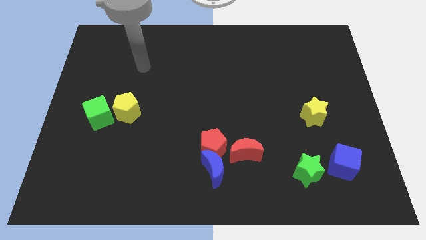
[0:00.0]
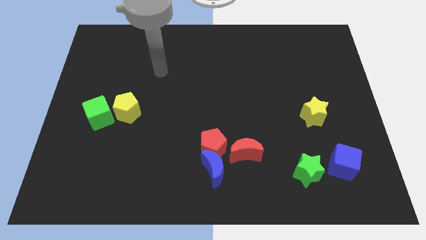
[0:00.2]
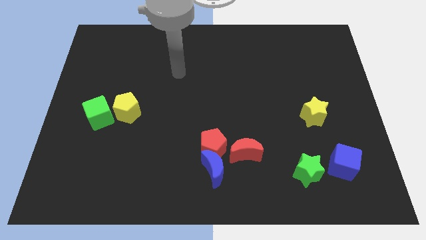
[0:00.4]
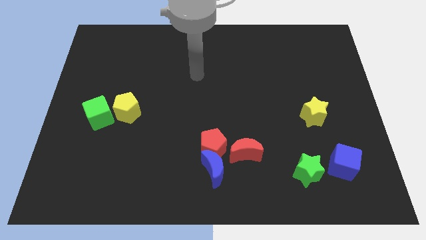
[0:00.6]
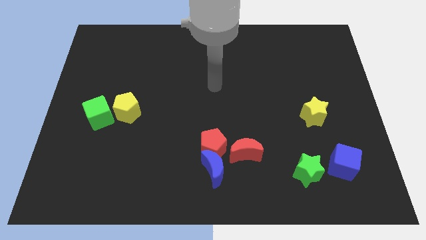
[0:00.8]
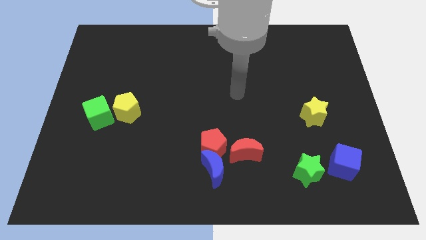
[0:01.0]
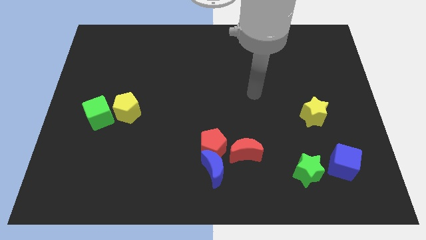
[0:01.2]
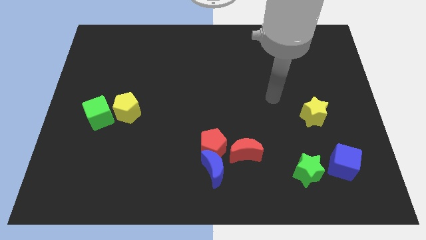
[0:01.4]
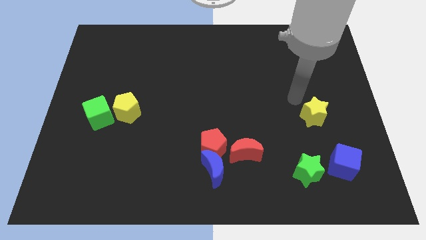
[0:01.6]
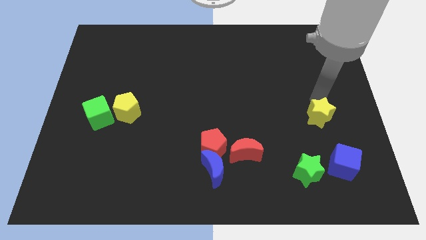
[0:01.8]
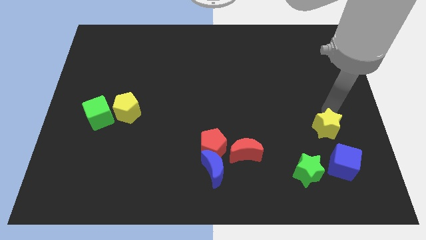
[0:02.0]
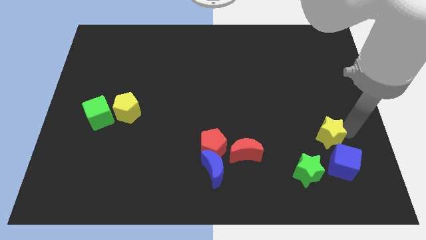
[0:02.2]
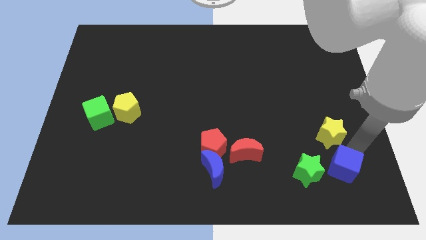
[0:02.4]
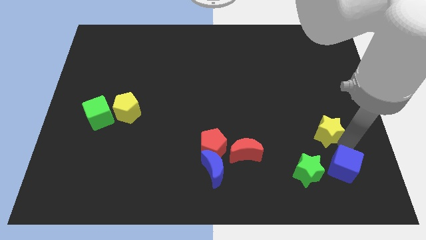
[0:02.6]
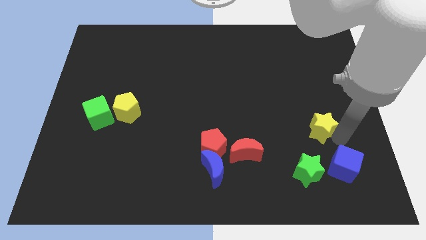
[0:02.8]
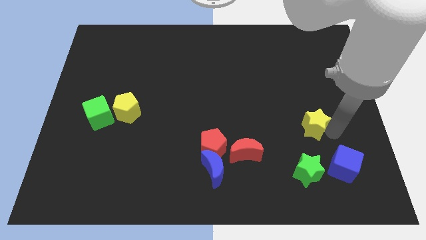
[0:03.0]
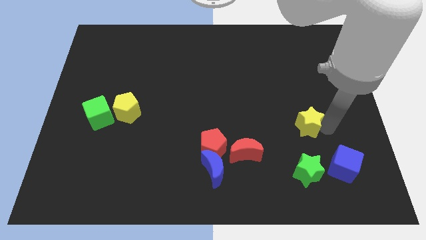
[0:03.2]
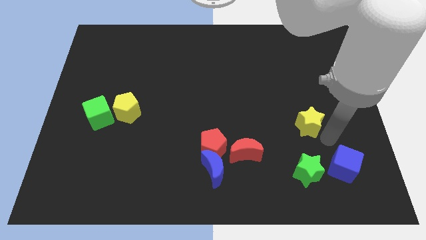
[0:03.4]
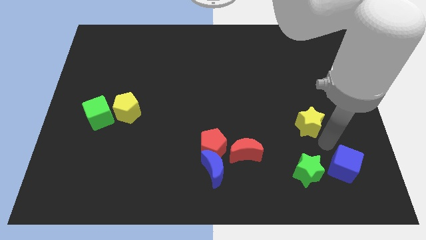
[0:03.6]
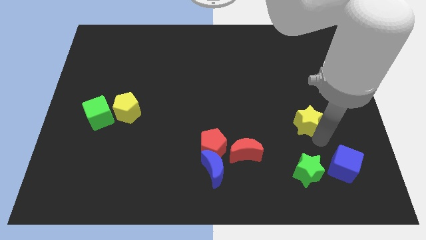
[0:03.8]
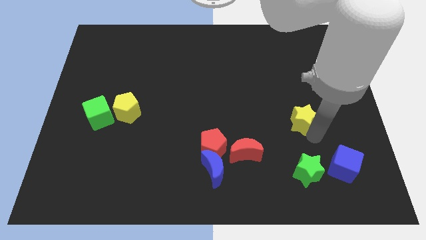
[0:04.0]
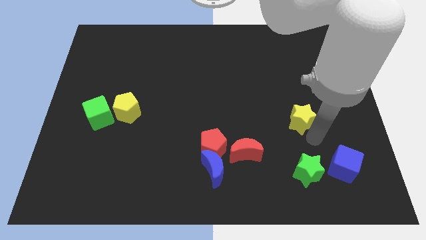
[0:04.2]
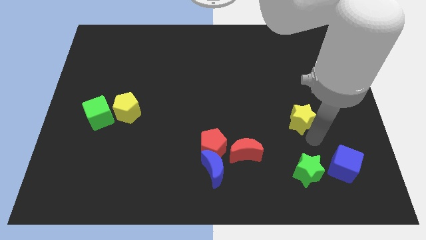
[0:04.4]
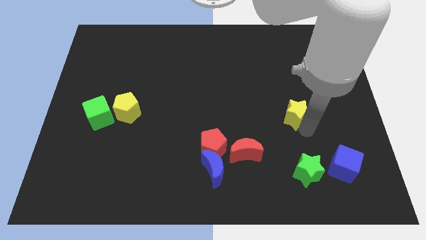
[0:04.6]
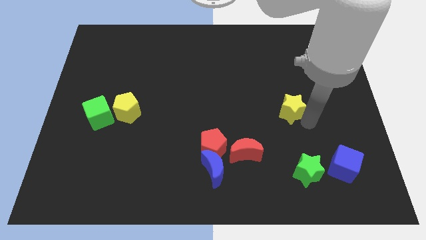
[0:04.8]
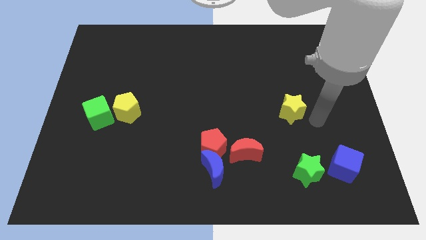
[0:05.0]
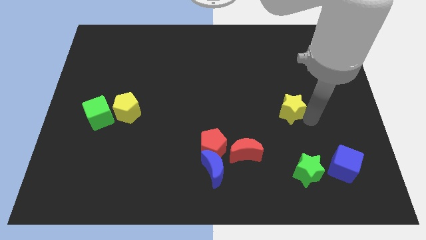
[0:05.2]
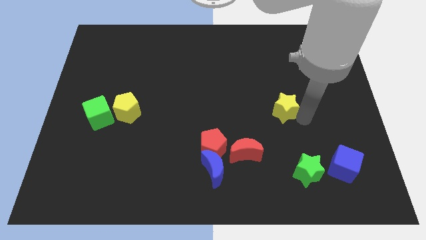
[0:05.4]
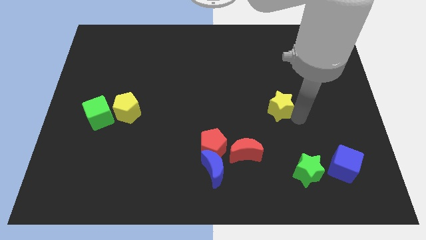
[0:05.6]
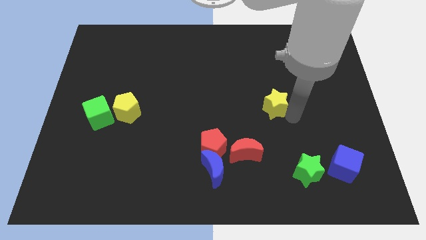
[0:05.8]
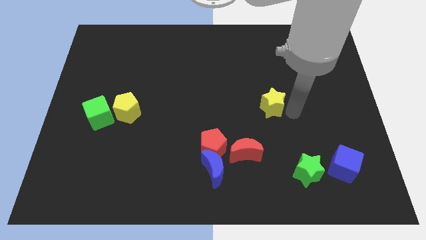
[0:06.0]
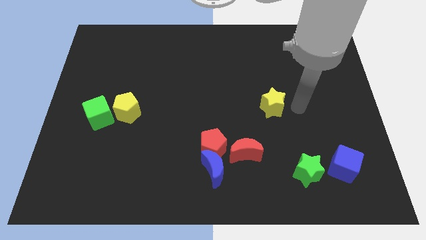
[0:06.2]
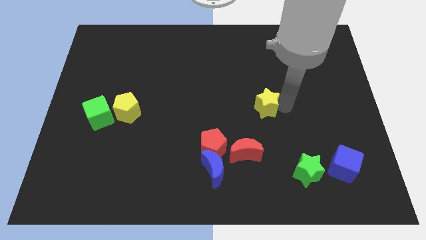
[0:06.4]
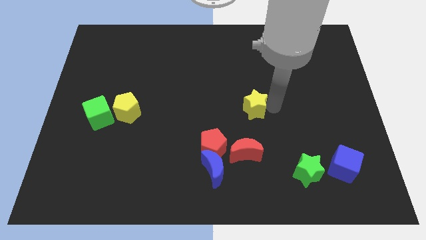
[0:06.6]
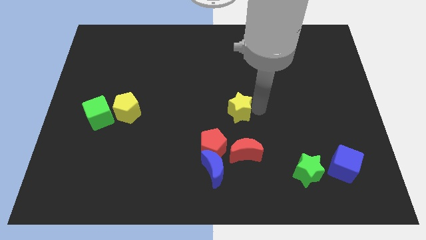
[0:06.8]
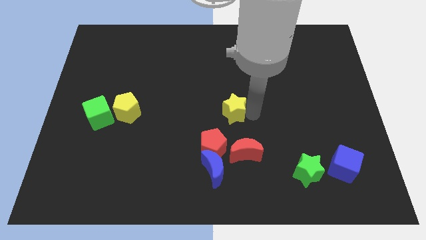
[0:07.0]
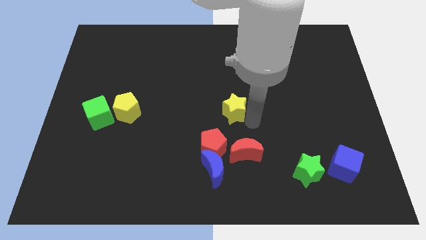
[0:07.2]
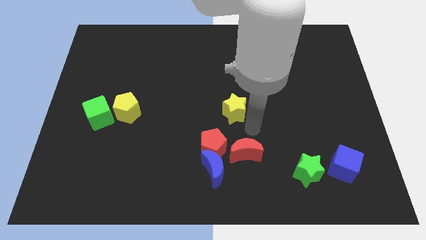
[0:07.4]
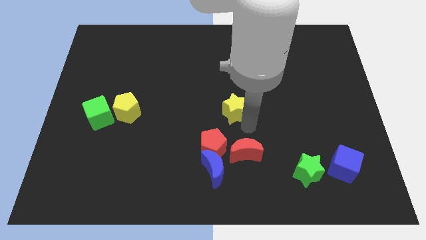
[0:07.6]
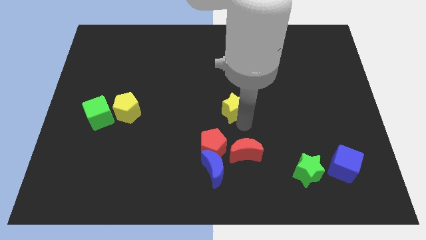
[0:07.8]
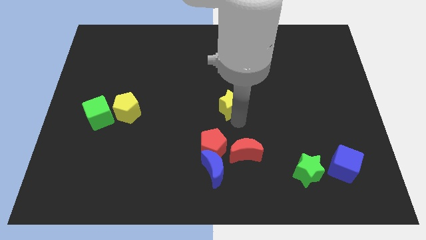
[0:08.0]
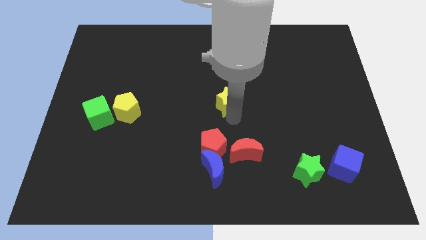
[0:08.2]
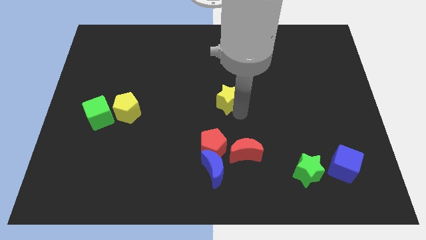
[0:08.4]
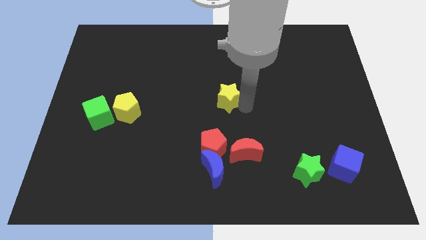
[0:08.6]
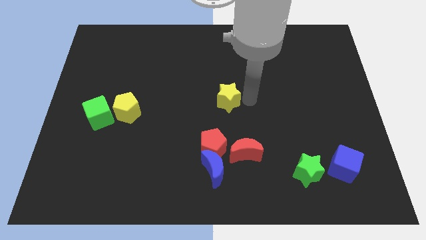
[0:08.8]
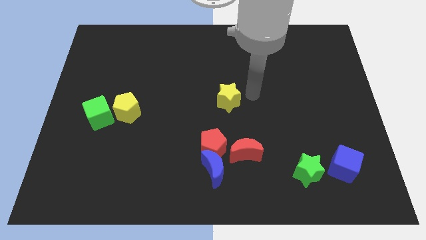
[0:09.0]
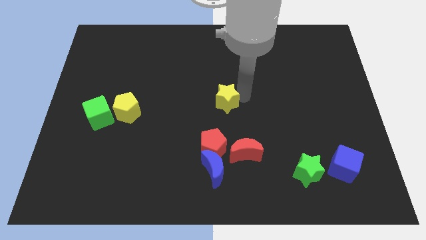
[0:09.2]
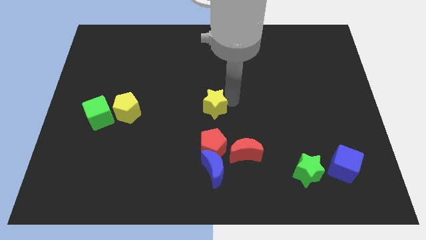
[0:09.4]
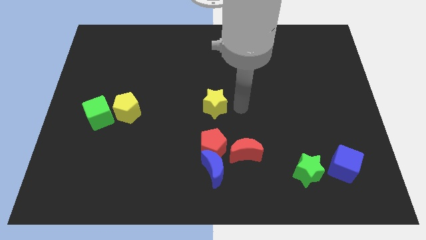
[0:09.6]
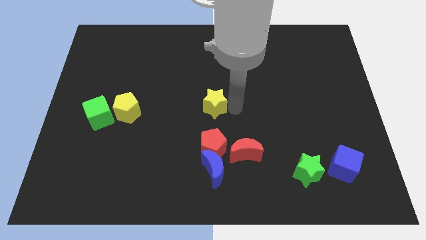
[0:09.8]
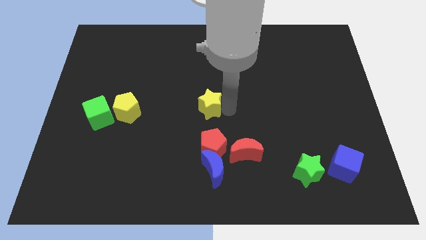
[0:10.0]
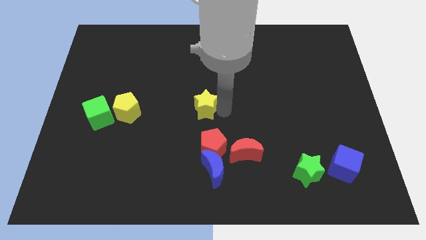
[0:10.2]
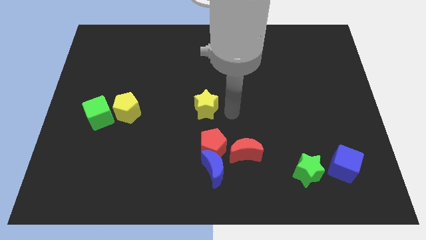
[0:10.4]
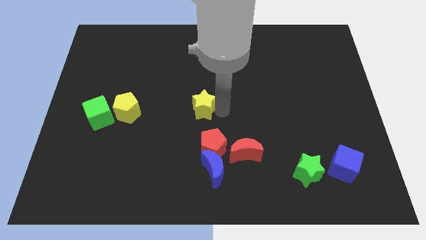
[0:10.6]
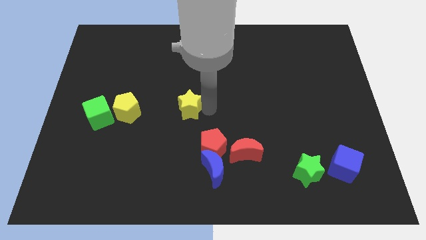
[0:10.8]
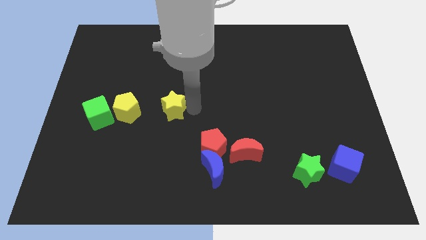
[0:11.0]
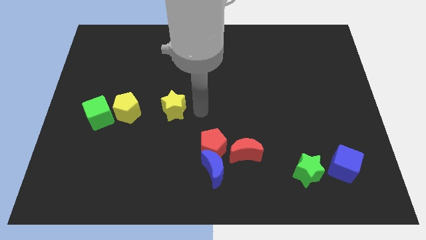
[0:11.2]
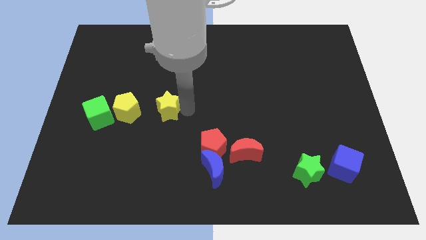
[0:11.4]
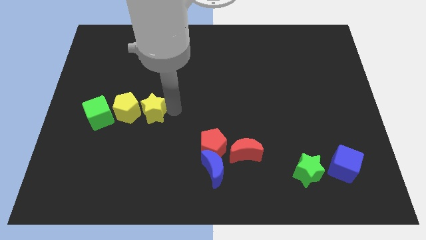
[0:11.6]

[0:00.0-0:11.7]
put the yellow star close to the yellow pentagon

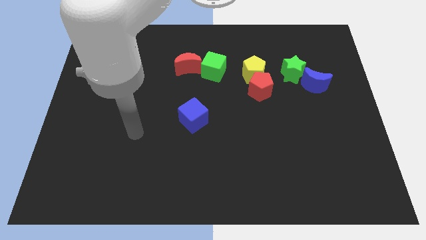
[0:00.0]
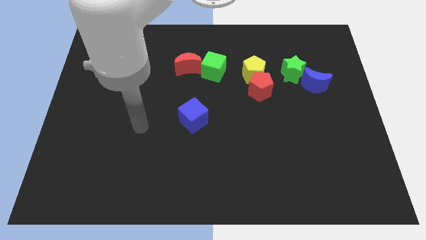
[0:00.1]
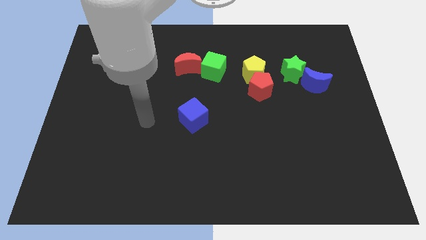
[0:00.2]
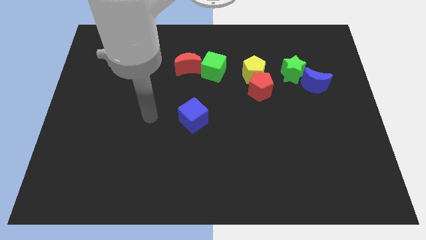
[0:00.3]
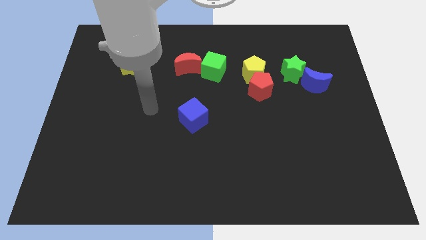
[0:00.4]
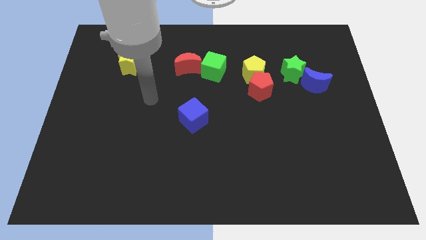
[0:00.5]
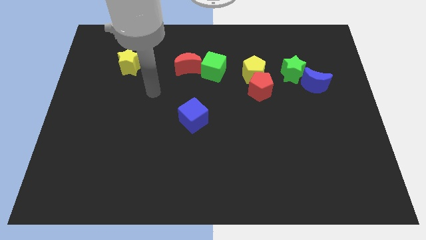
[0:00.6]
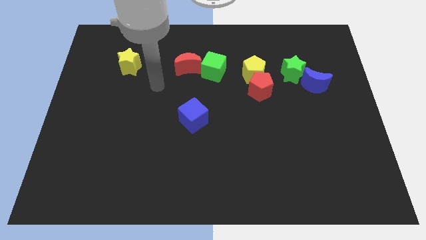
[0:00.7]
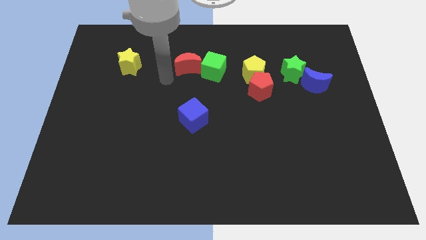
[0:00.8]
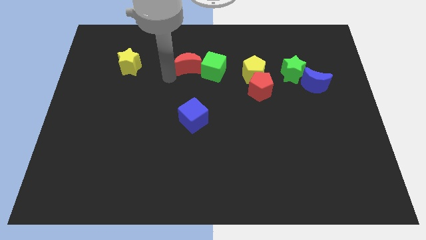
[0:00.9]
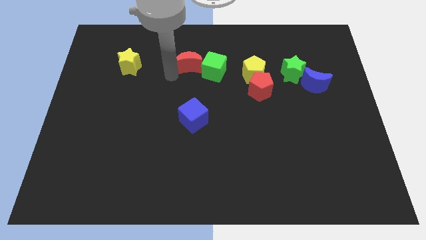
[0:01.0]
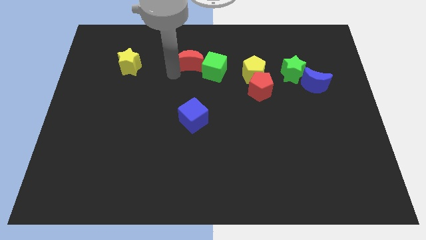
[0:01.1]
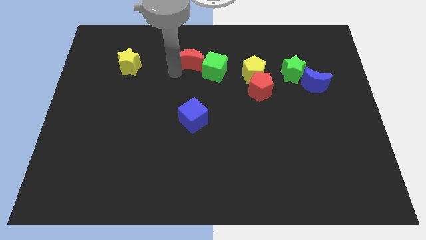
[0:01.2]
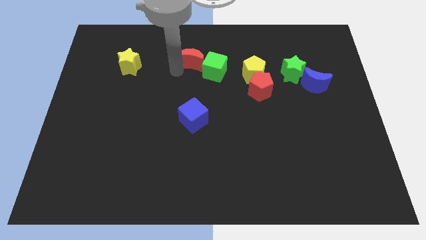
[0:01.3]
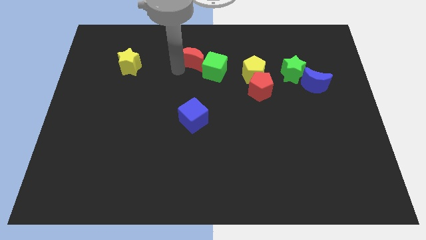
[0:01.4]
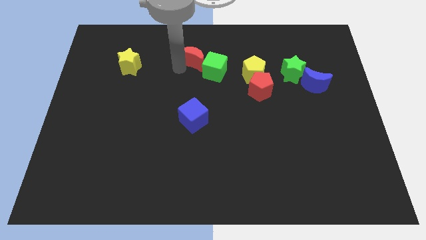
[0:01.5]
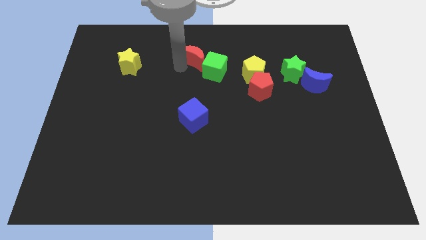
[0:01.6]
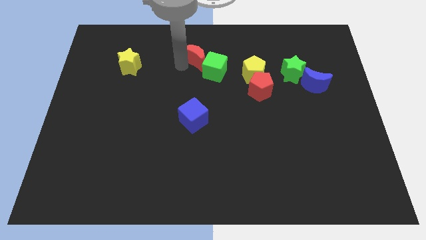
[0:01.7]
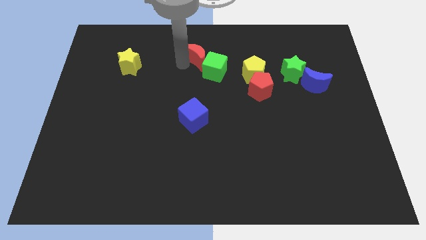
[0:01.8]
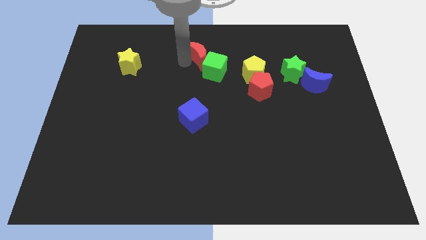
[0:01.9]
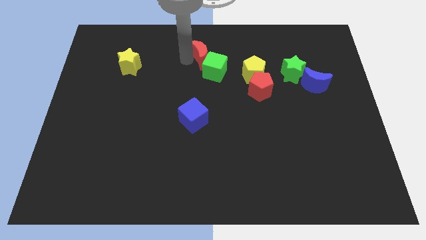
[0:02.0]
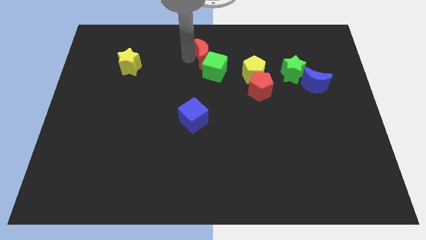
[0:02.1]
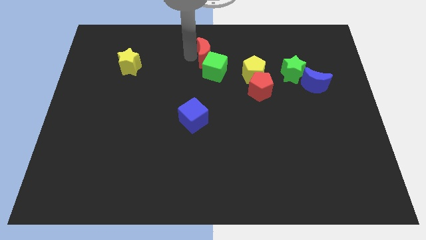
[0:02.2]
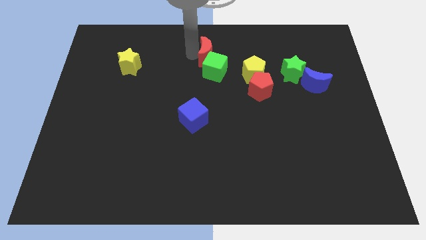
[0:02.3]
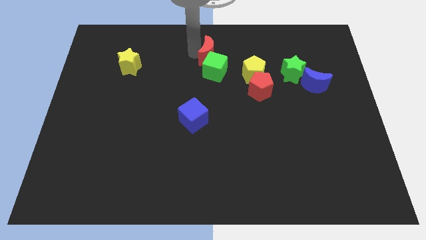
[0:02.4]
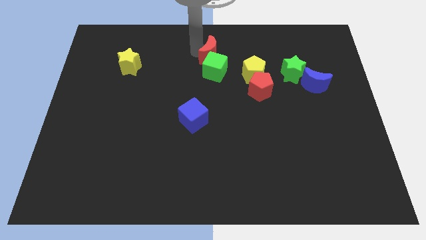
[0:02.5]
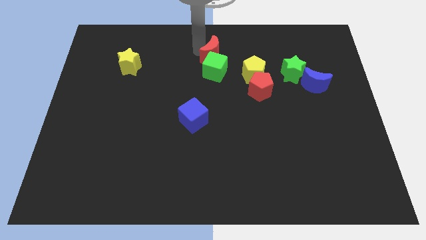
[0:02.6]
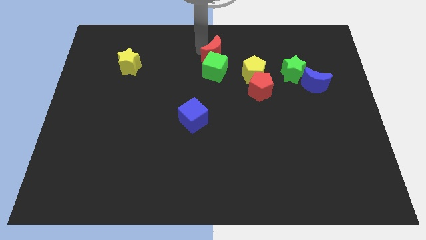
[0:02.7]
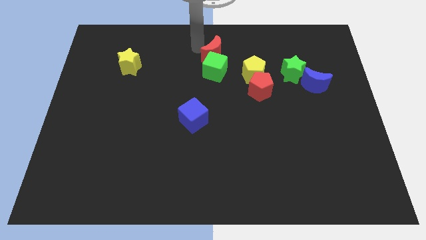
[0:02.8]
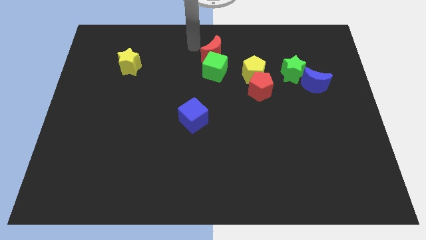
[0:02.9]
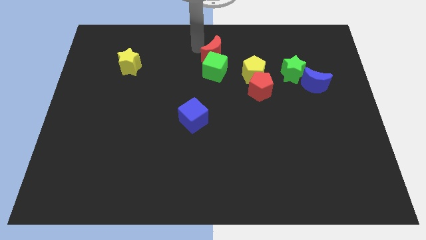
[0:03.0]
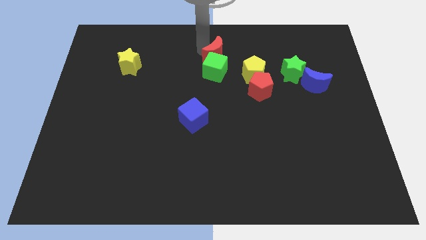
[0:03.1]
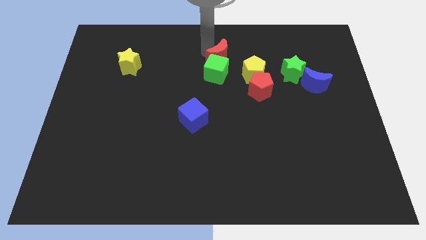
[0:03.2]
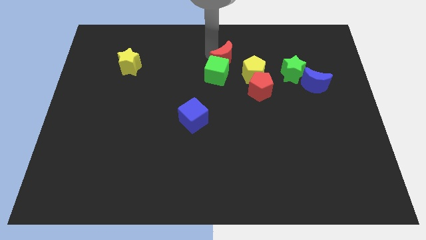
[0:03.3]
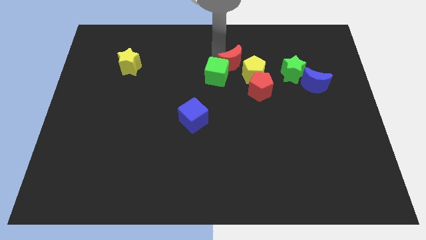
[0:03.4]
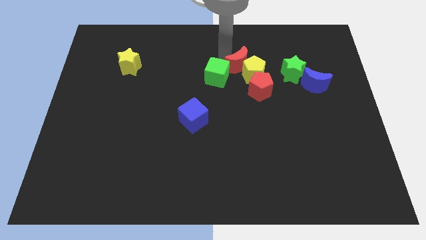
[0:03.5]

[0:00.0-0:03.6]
slide the red moon close to the yellow pentagon
